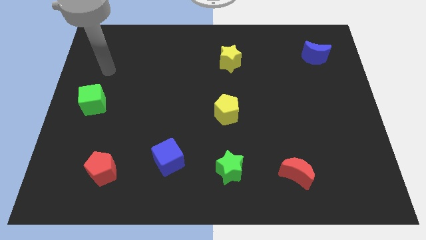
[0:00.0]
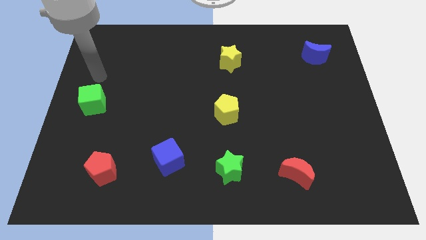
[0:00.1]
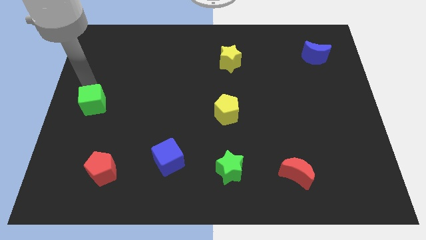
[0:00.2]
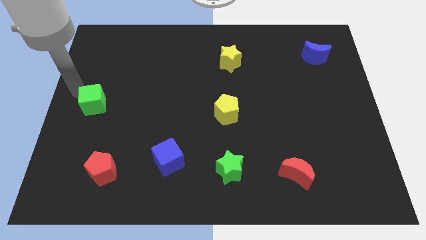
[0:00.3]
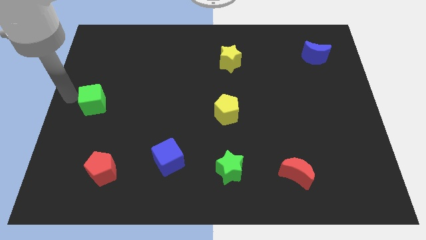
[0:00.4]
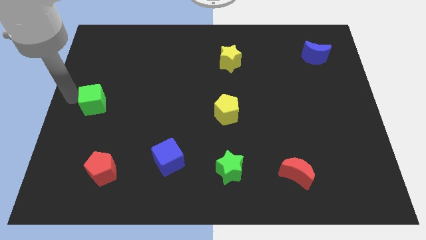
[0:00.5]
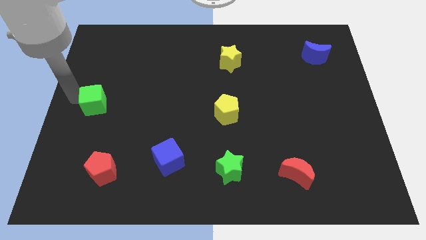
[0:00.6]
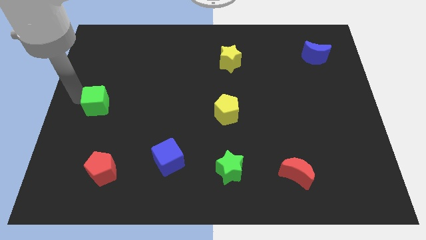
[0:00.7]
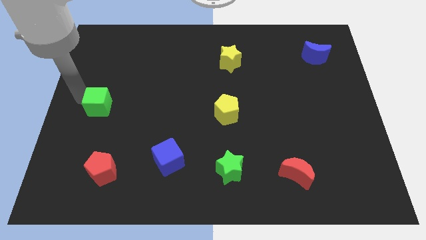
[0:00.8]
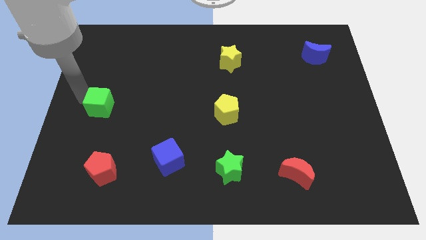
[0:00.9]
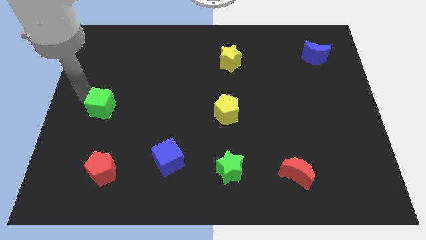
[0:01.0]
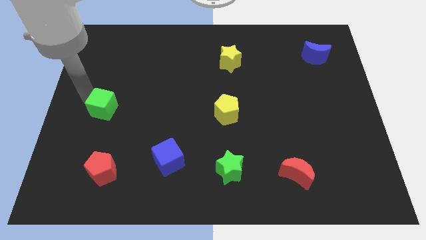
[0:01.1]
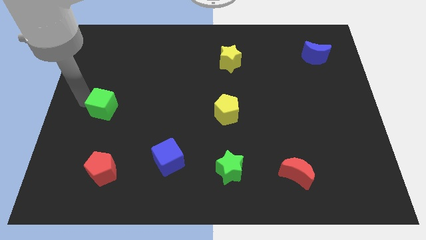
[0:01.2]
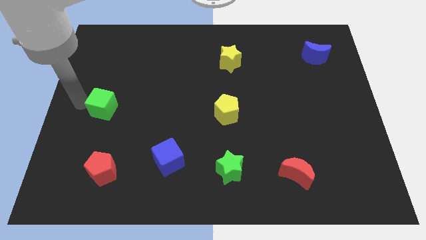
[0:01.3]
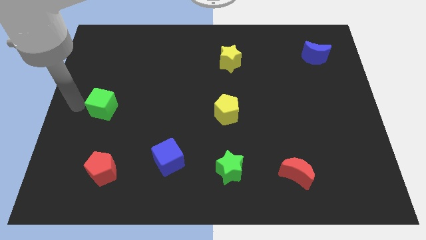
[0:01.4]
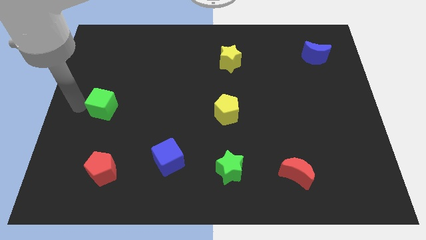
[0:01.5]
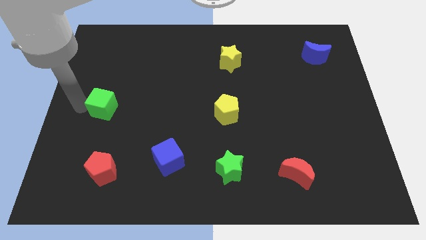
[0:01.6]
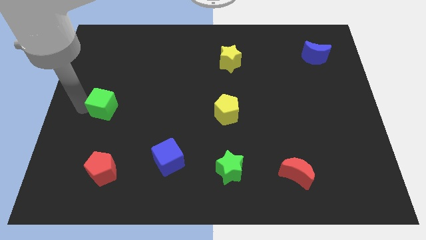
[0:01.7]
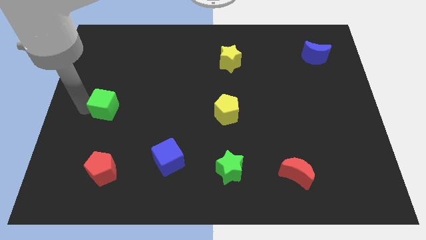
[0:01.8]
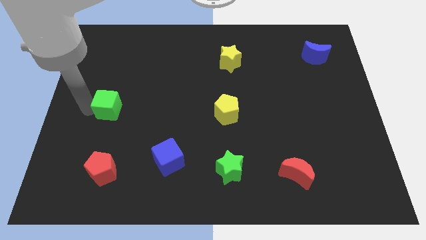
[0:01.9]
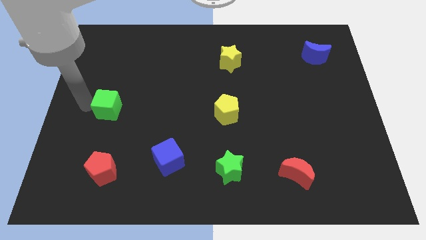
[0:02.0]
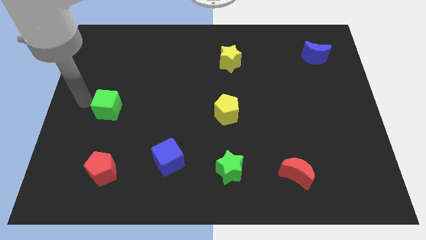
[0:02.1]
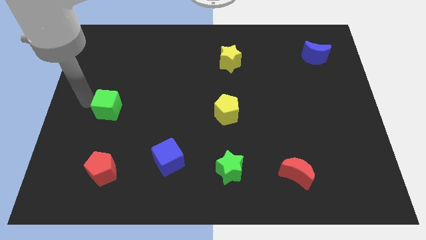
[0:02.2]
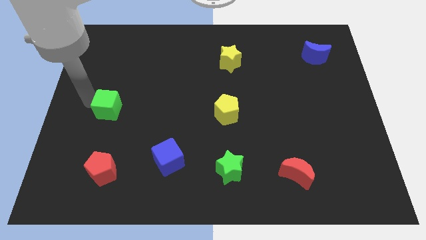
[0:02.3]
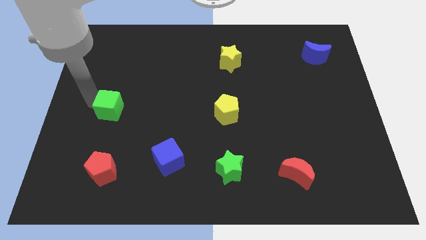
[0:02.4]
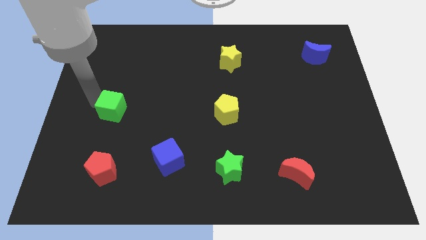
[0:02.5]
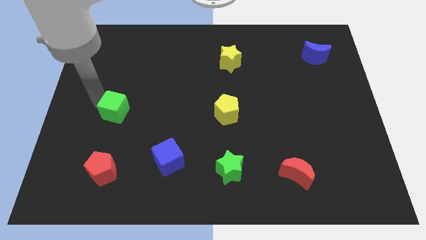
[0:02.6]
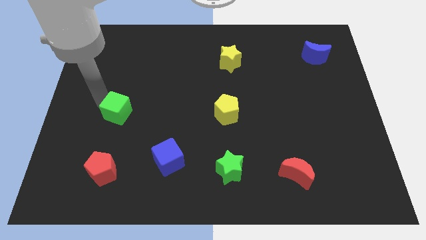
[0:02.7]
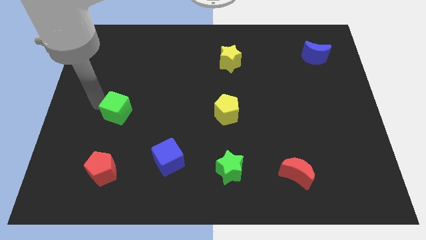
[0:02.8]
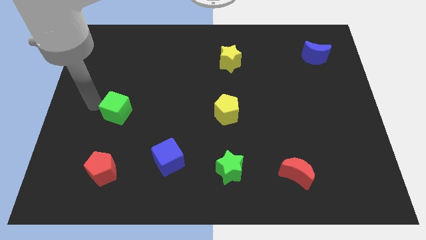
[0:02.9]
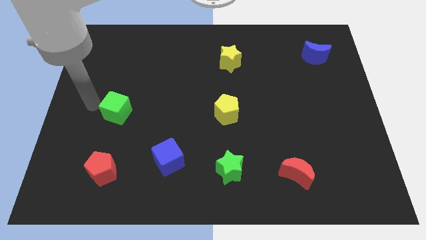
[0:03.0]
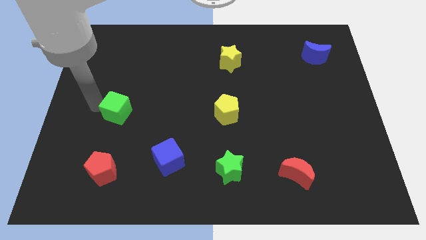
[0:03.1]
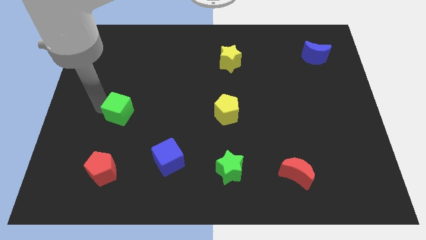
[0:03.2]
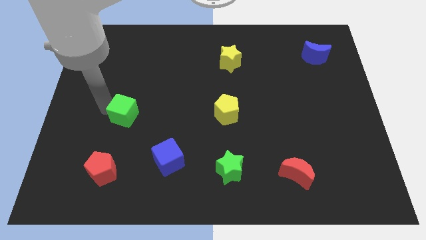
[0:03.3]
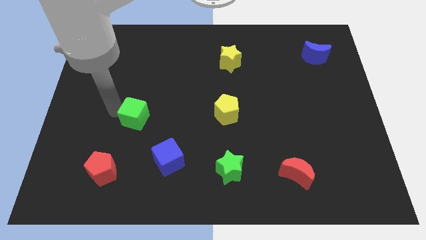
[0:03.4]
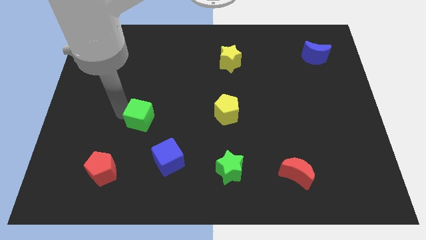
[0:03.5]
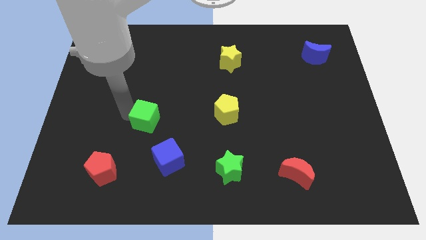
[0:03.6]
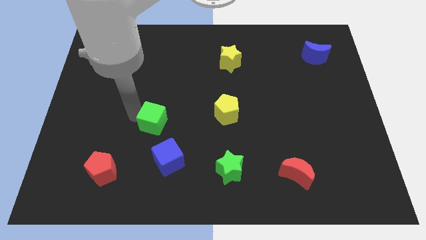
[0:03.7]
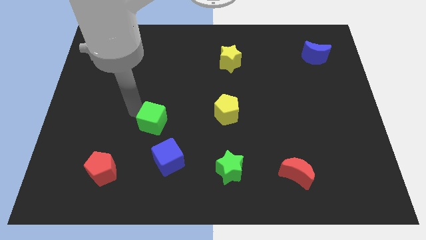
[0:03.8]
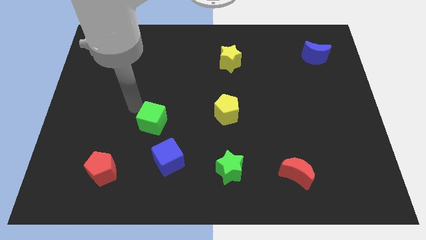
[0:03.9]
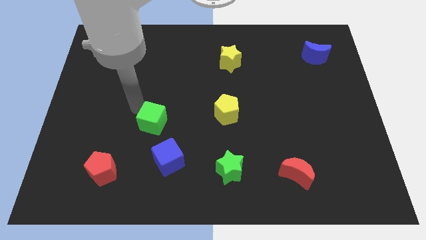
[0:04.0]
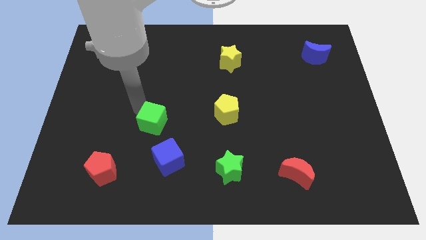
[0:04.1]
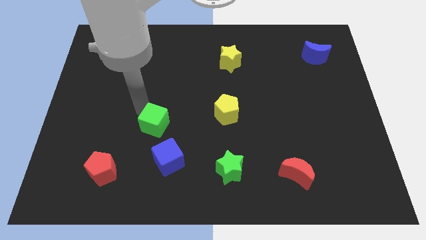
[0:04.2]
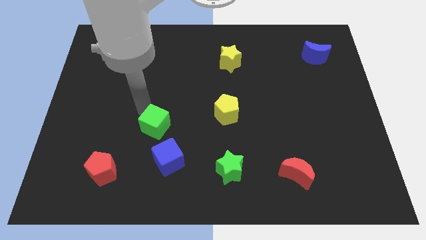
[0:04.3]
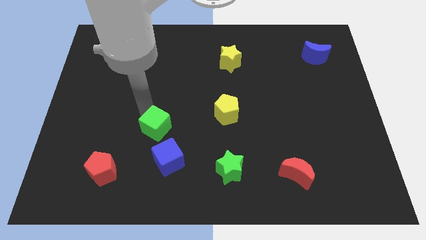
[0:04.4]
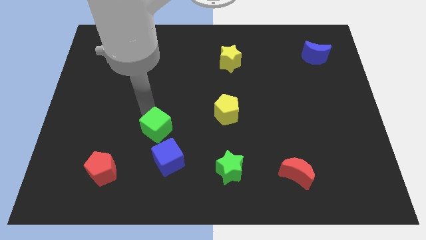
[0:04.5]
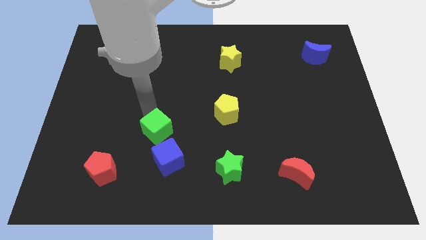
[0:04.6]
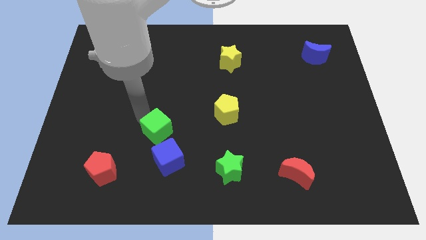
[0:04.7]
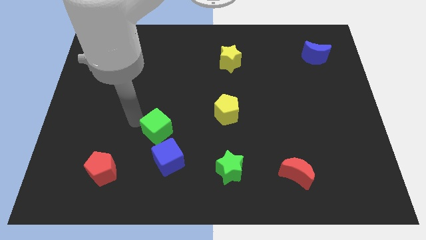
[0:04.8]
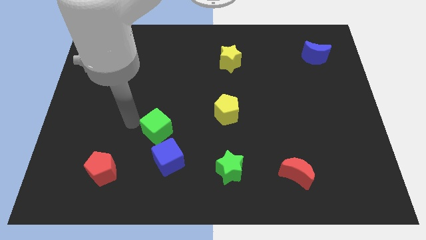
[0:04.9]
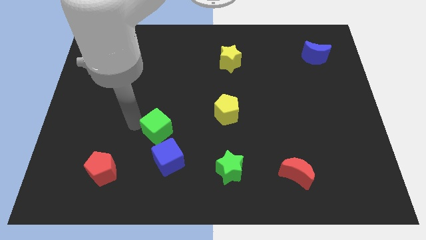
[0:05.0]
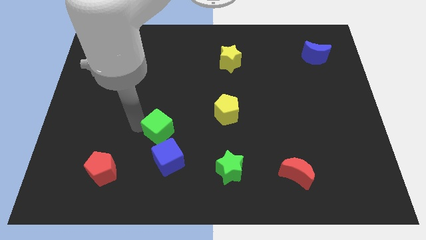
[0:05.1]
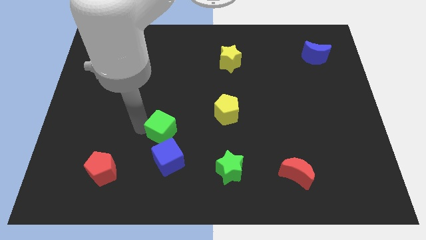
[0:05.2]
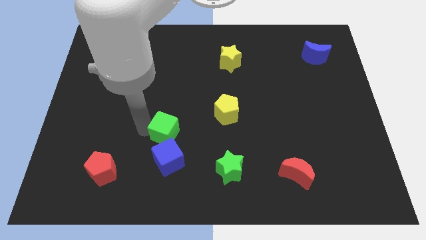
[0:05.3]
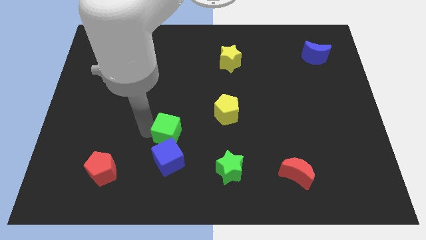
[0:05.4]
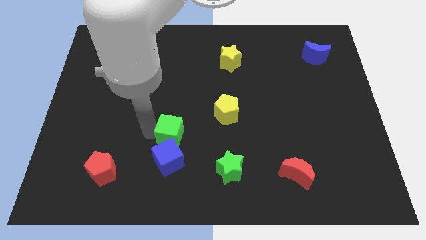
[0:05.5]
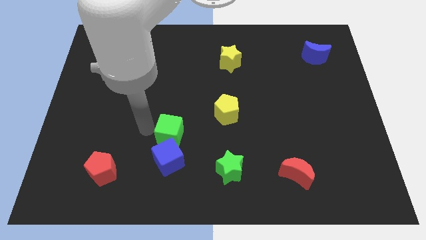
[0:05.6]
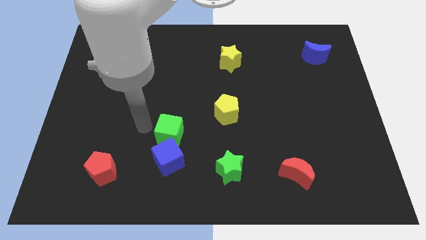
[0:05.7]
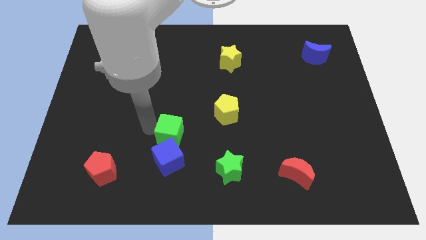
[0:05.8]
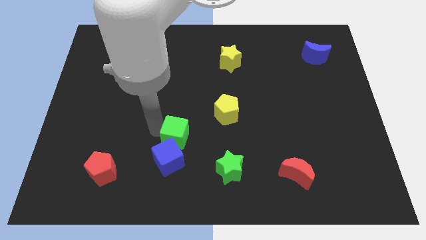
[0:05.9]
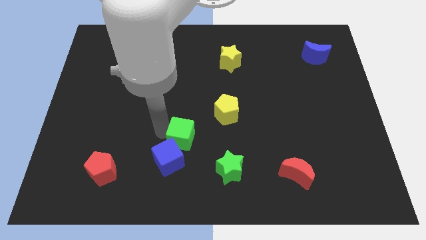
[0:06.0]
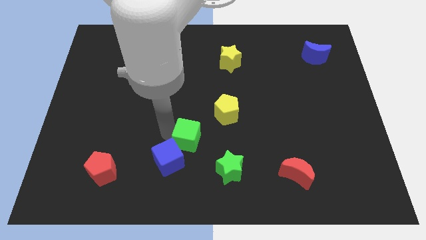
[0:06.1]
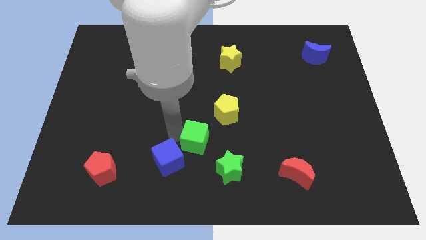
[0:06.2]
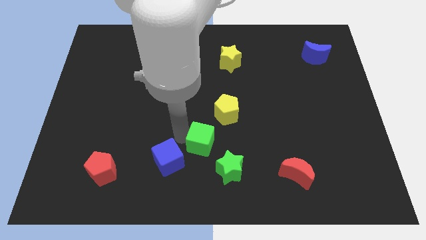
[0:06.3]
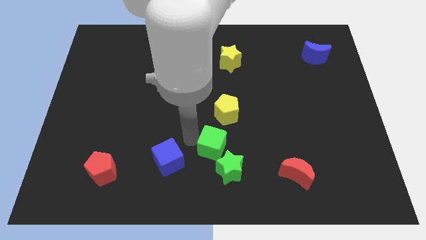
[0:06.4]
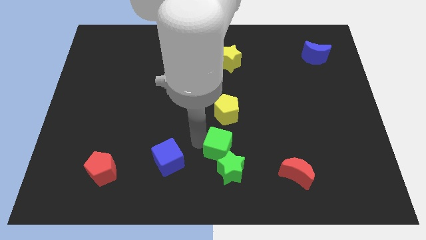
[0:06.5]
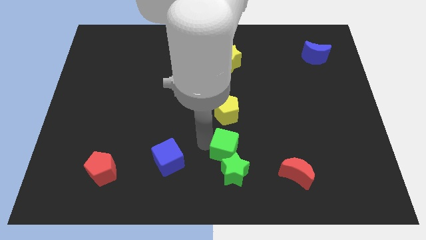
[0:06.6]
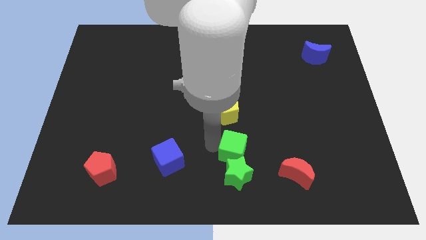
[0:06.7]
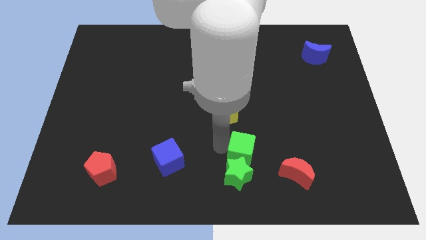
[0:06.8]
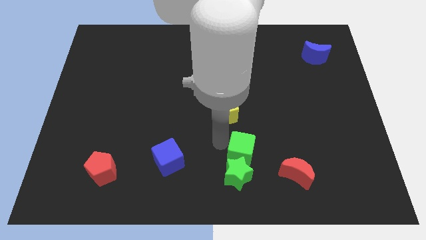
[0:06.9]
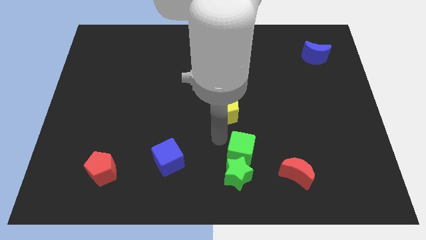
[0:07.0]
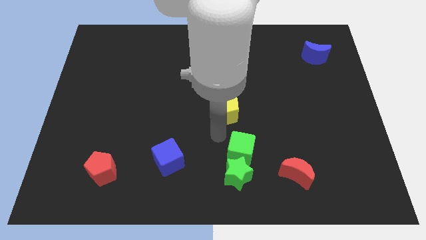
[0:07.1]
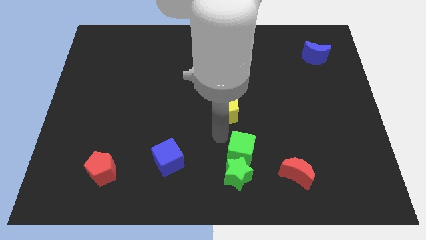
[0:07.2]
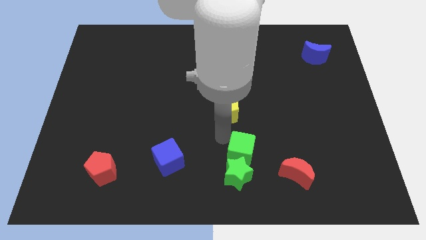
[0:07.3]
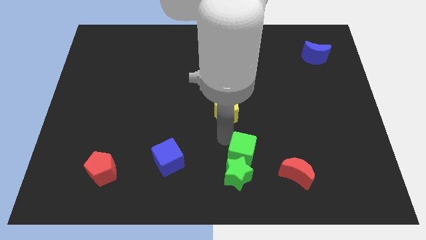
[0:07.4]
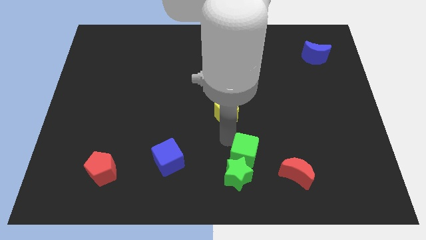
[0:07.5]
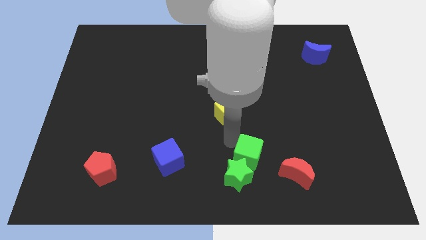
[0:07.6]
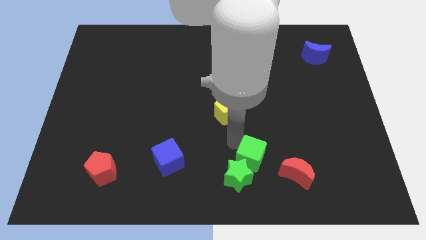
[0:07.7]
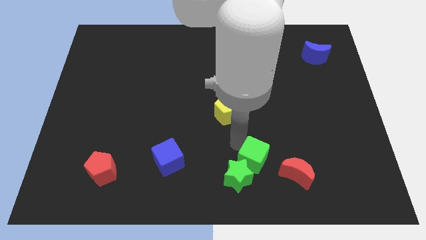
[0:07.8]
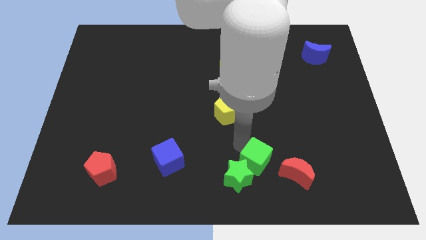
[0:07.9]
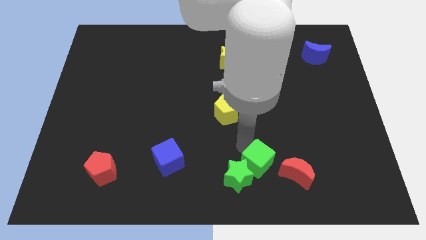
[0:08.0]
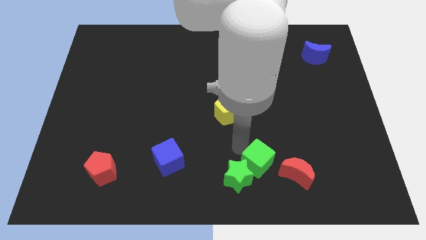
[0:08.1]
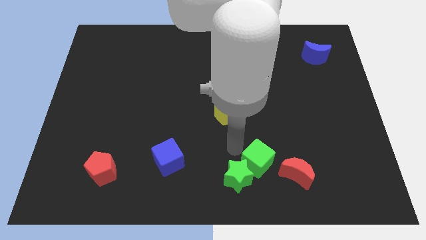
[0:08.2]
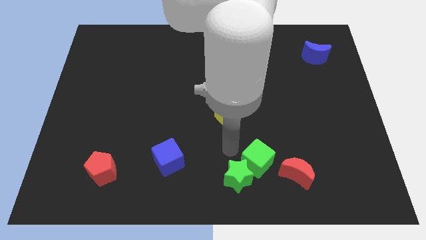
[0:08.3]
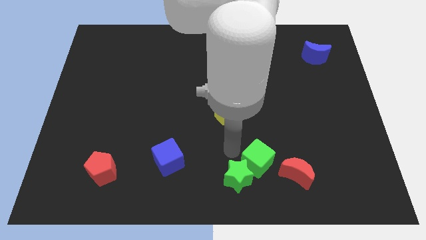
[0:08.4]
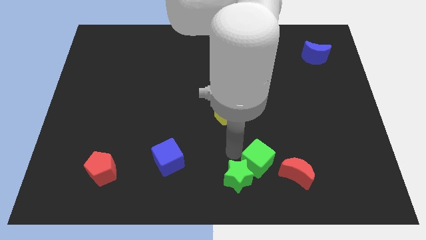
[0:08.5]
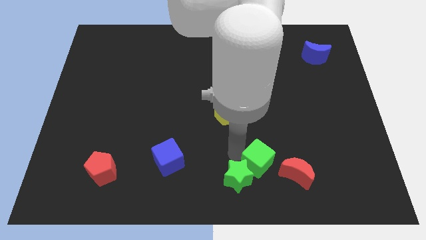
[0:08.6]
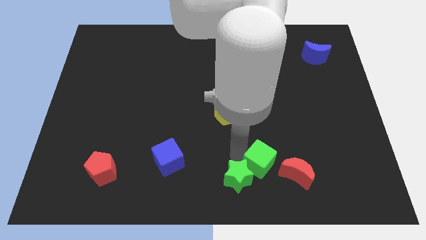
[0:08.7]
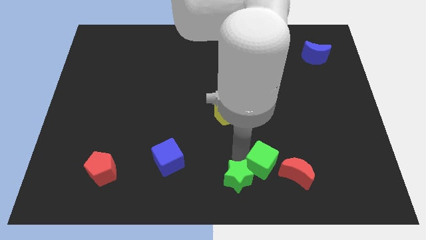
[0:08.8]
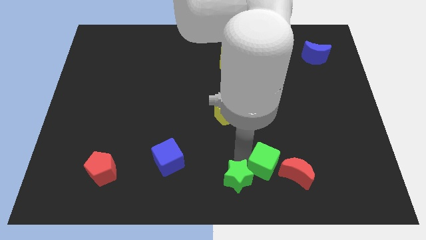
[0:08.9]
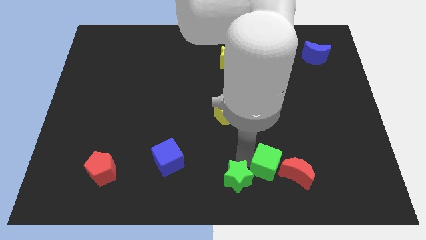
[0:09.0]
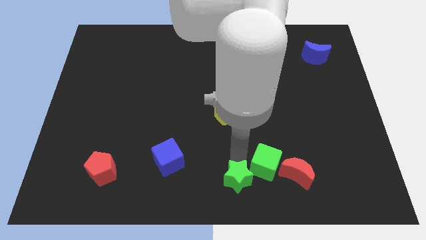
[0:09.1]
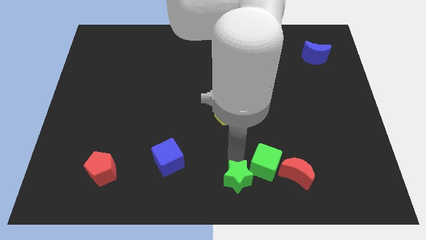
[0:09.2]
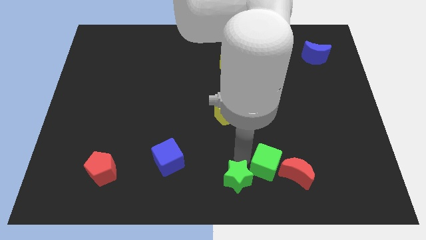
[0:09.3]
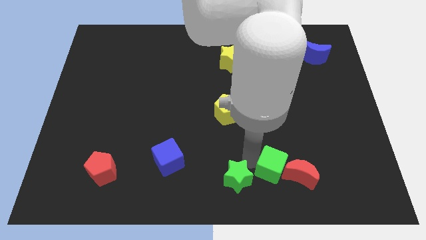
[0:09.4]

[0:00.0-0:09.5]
put the green cube close to the red moon
